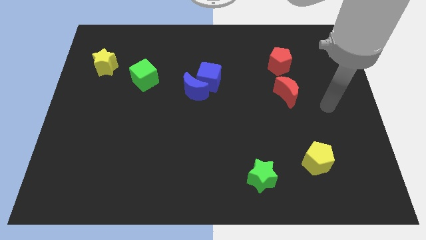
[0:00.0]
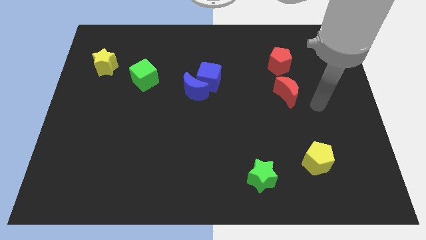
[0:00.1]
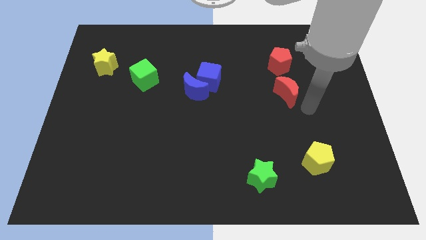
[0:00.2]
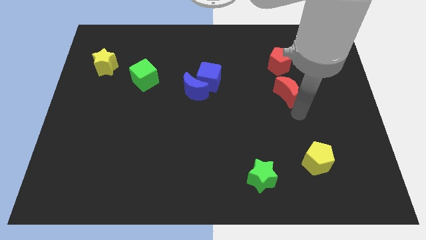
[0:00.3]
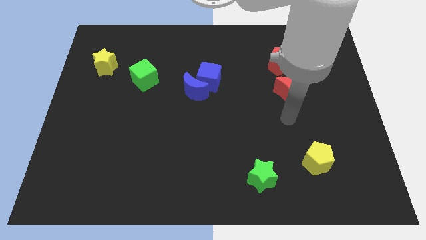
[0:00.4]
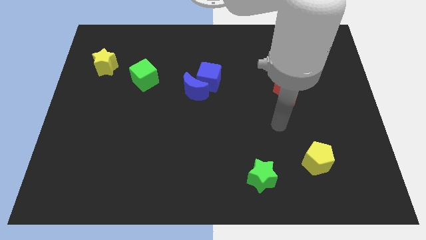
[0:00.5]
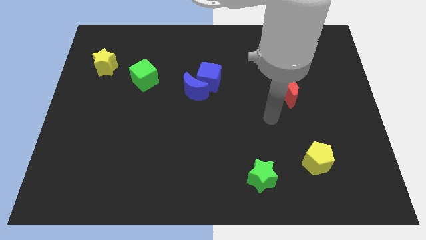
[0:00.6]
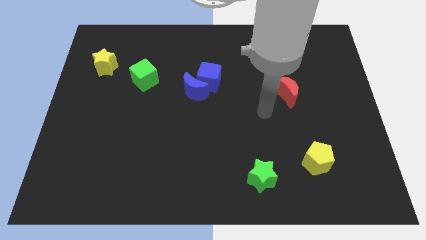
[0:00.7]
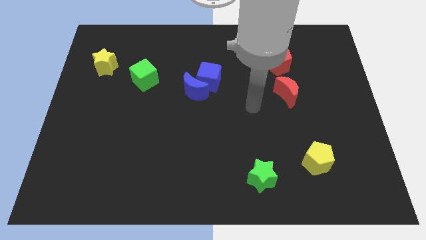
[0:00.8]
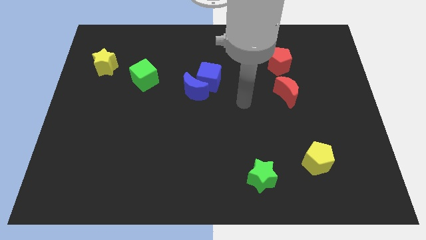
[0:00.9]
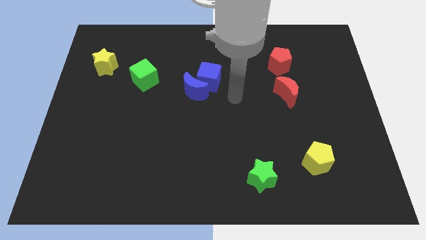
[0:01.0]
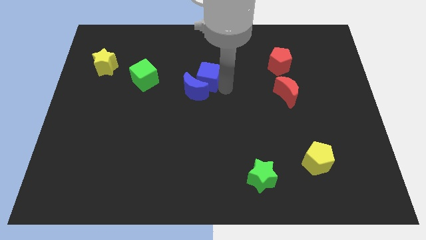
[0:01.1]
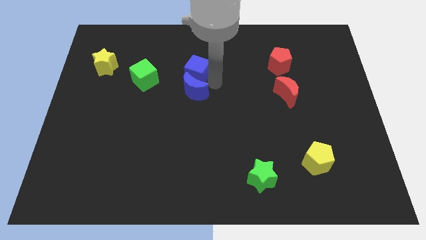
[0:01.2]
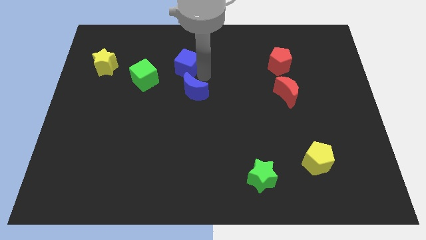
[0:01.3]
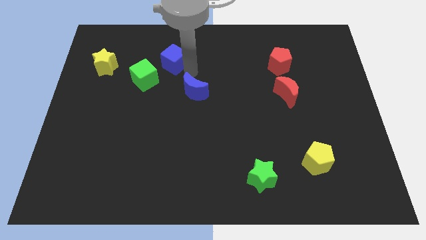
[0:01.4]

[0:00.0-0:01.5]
separate the blue moon from the blue cube

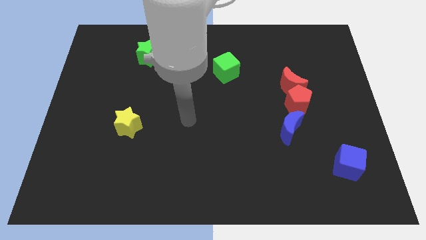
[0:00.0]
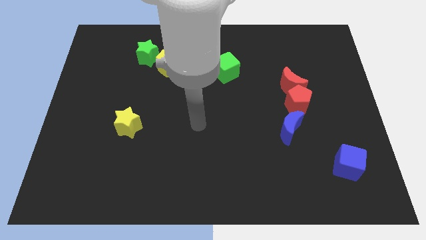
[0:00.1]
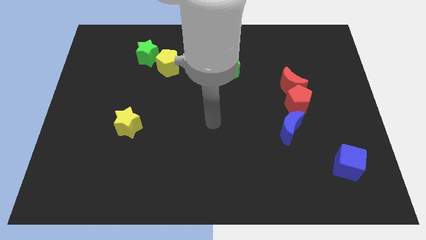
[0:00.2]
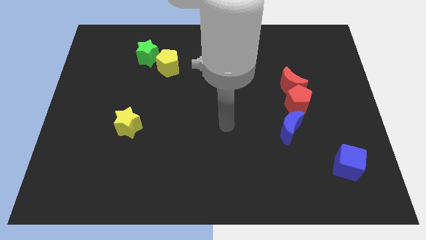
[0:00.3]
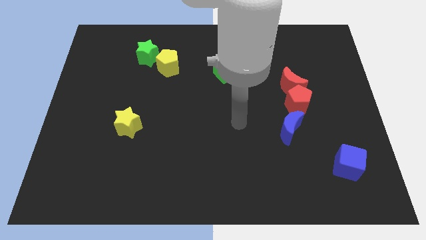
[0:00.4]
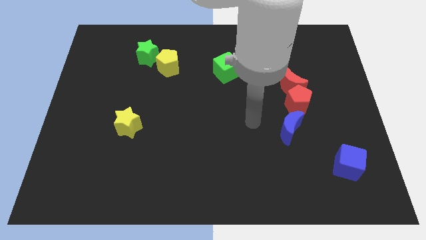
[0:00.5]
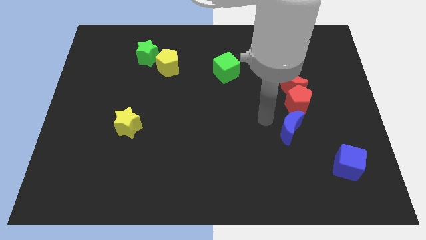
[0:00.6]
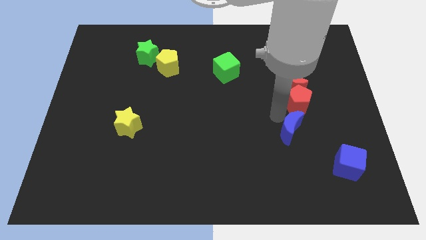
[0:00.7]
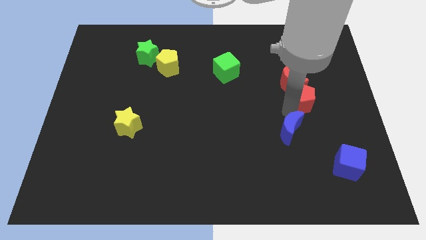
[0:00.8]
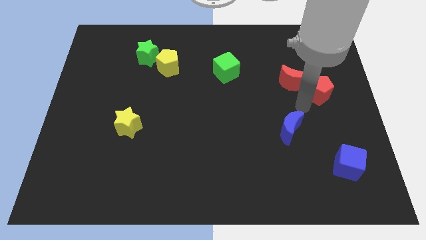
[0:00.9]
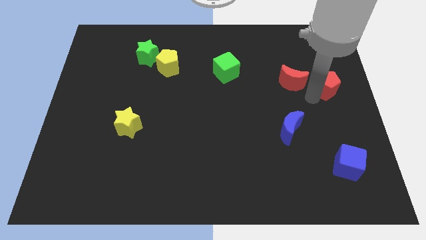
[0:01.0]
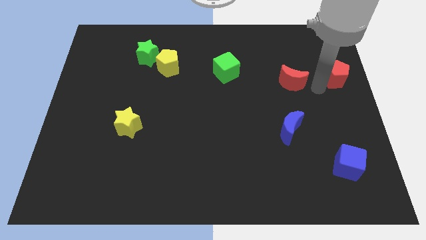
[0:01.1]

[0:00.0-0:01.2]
pull the red moon apart from the red pentagon

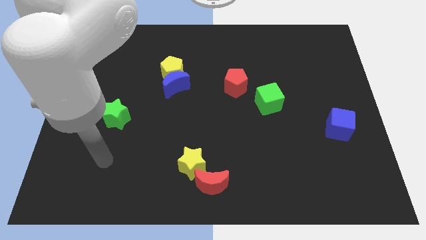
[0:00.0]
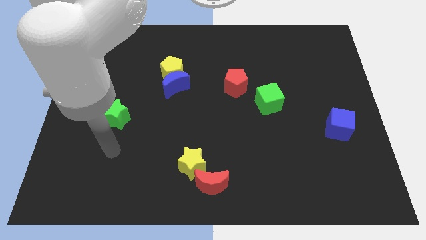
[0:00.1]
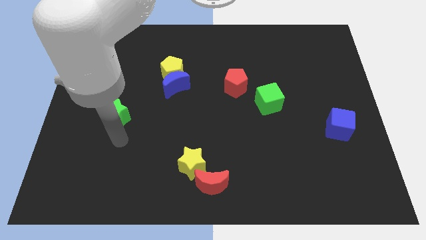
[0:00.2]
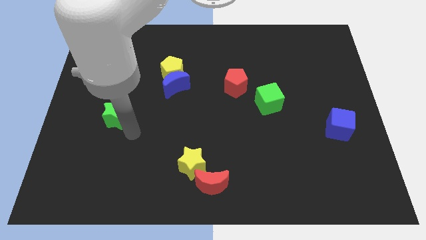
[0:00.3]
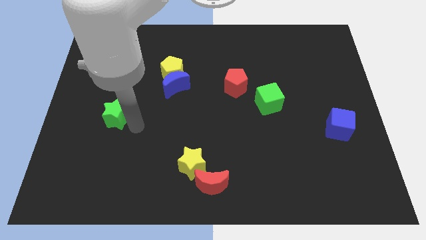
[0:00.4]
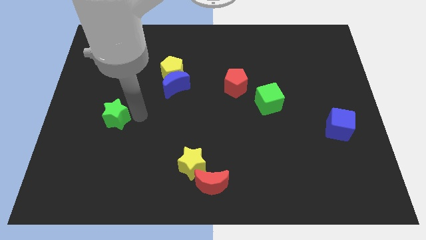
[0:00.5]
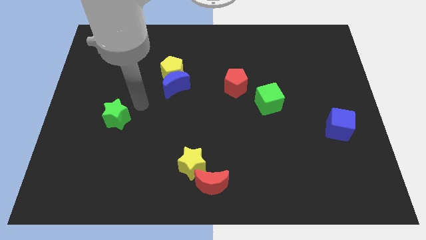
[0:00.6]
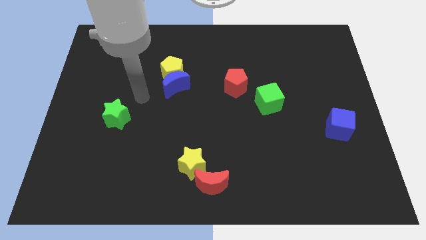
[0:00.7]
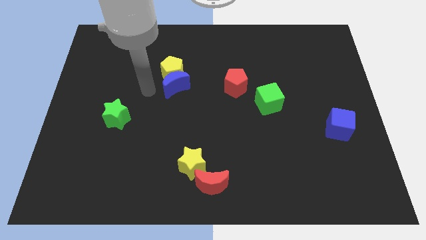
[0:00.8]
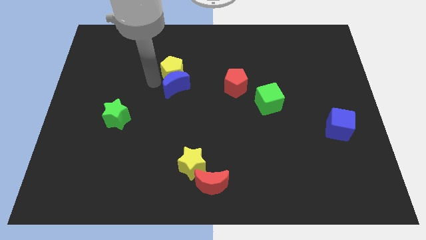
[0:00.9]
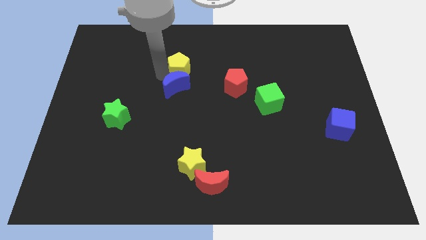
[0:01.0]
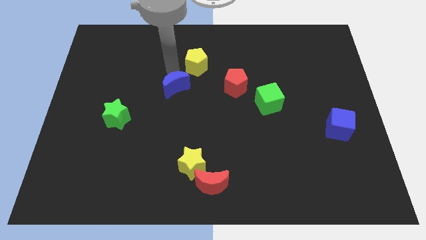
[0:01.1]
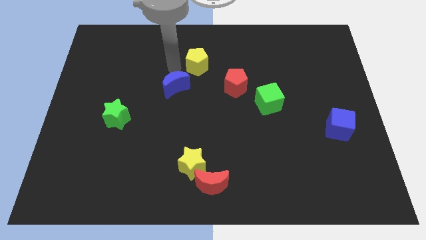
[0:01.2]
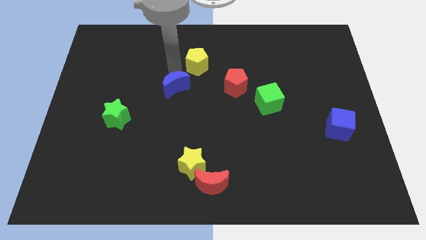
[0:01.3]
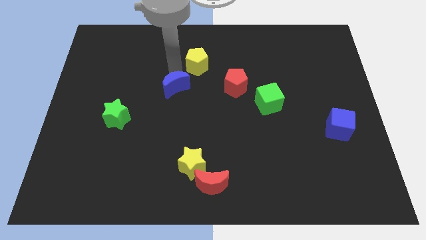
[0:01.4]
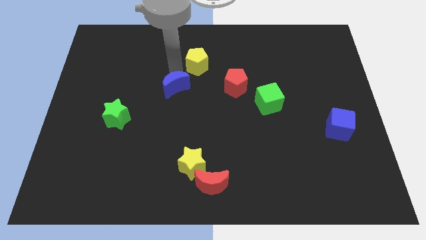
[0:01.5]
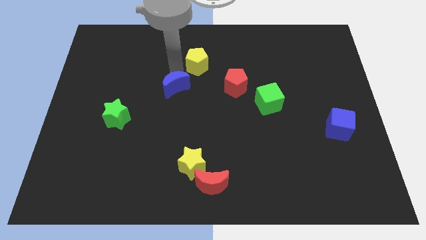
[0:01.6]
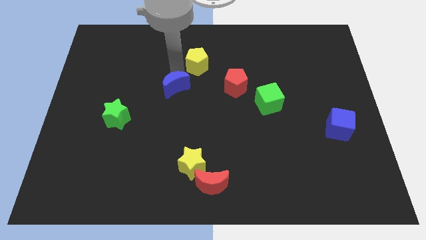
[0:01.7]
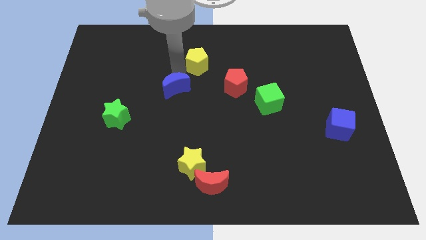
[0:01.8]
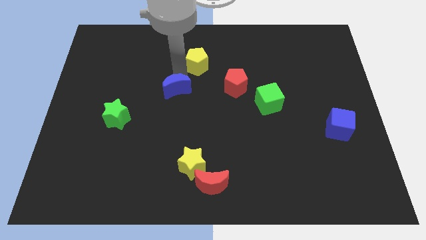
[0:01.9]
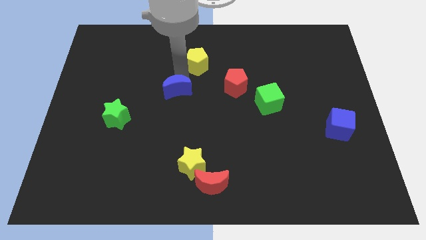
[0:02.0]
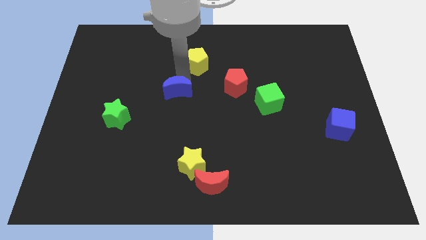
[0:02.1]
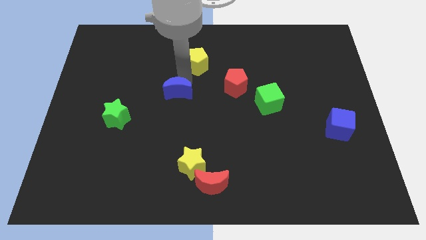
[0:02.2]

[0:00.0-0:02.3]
pull the blue moon apart from the yellow pentagon

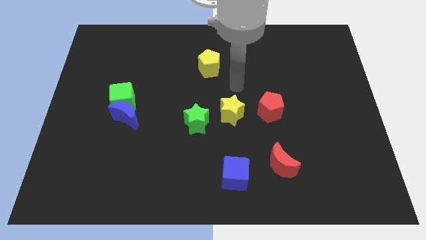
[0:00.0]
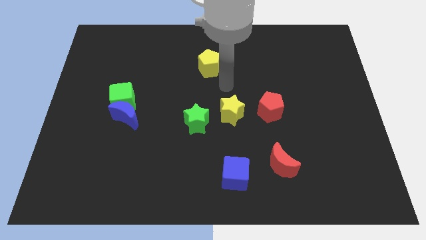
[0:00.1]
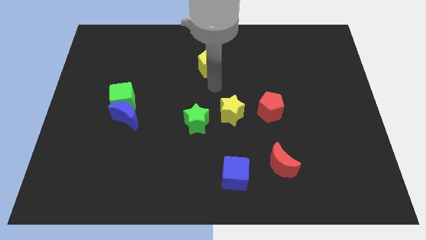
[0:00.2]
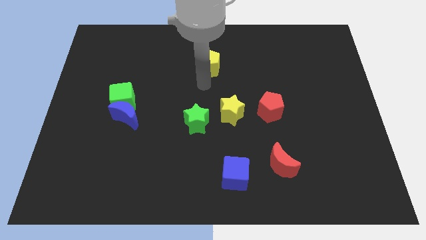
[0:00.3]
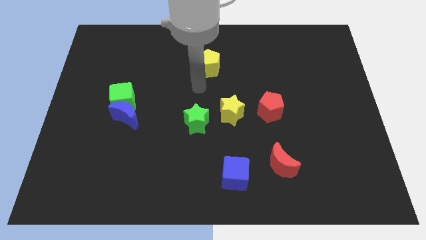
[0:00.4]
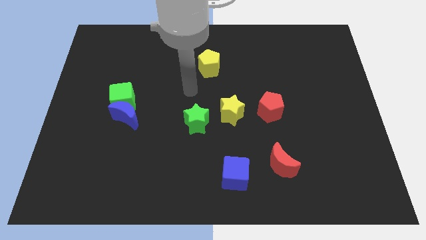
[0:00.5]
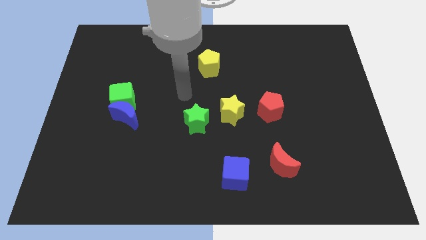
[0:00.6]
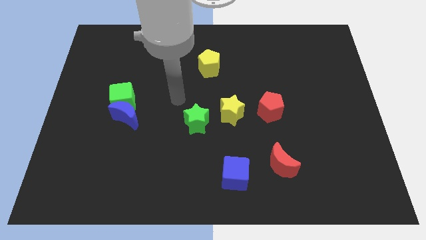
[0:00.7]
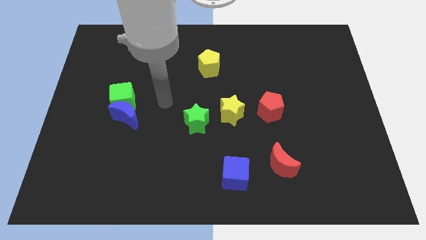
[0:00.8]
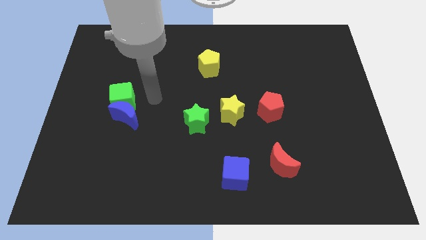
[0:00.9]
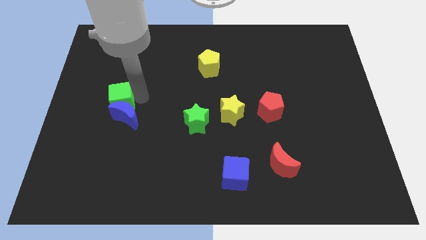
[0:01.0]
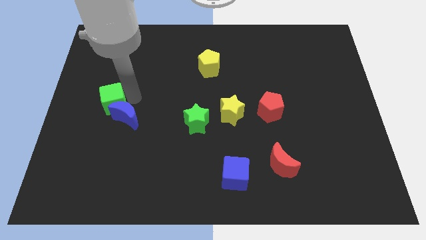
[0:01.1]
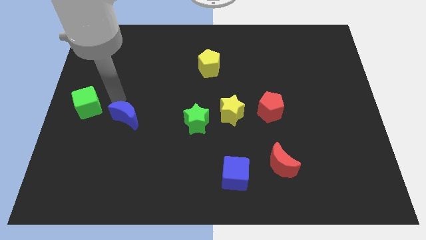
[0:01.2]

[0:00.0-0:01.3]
pull the blue moon apart from the green cube

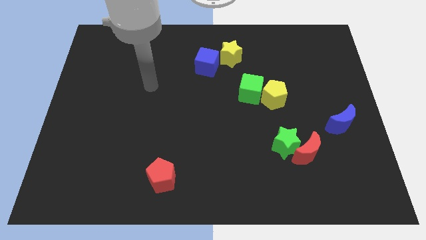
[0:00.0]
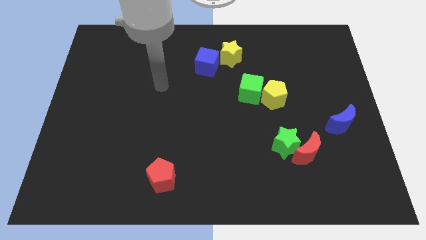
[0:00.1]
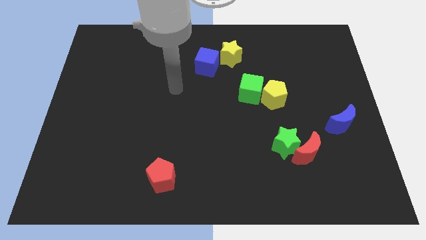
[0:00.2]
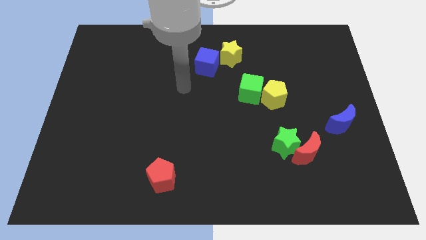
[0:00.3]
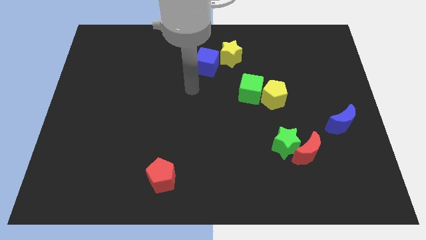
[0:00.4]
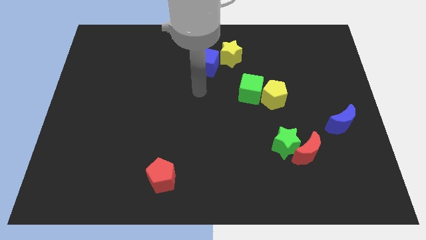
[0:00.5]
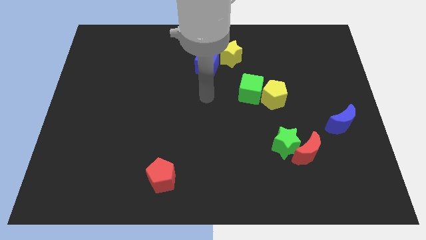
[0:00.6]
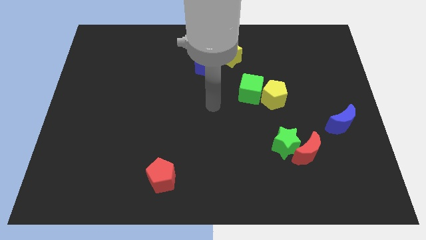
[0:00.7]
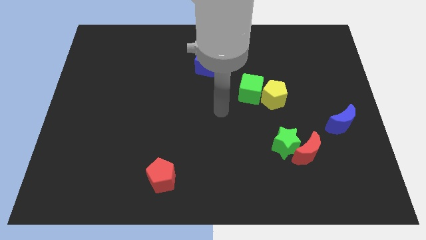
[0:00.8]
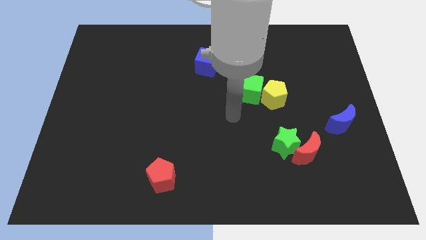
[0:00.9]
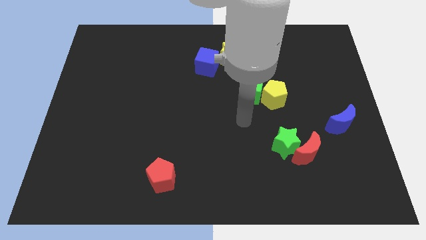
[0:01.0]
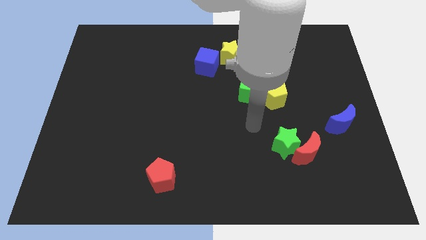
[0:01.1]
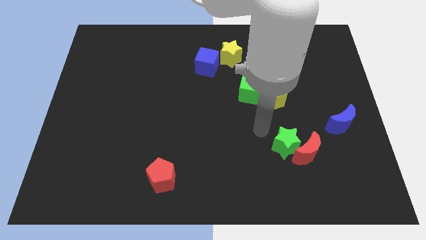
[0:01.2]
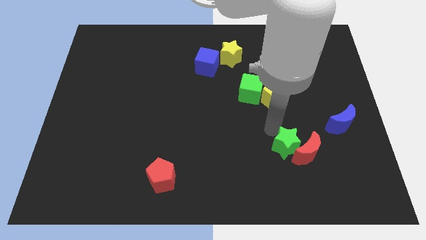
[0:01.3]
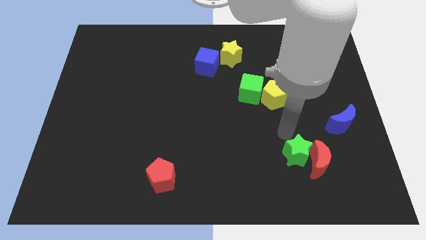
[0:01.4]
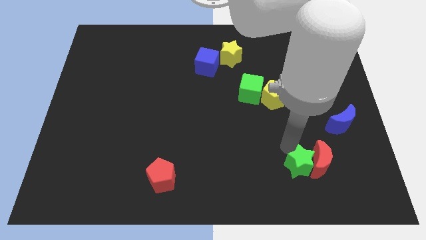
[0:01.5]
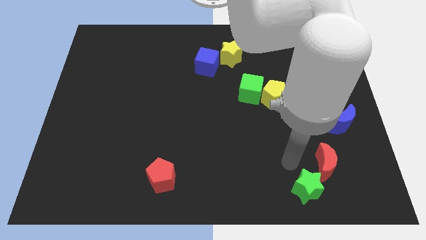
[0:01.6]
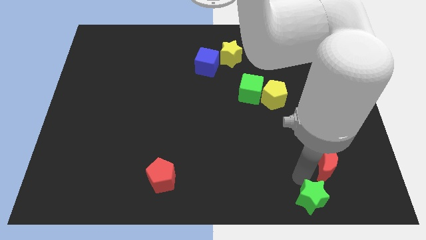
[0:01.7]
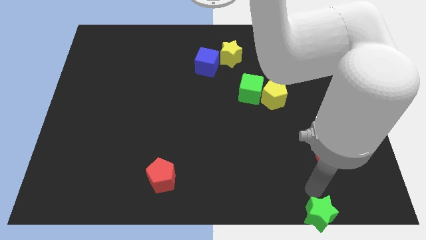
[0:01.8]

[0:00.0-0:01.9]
move the red moon away from the green star

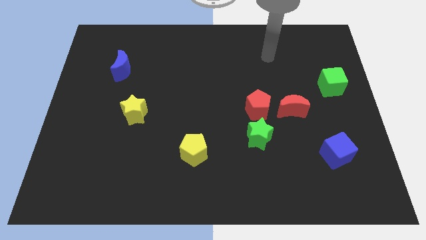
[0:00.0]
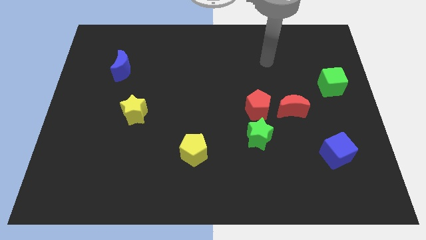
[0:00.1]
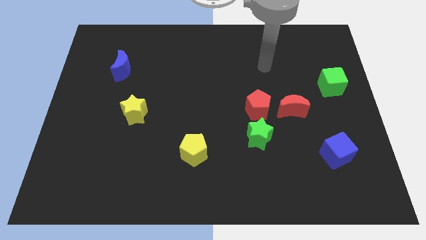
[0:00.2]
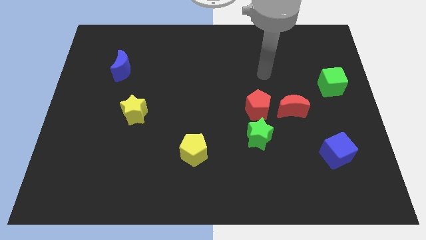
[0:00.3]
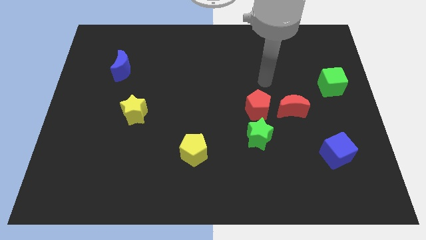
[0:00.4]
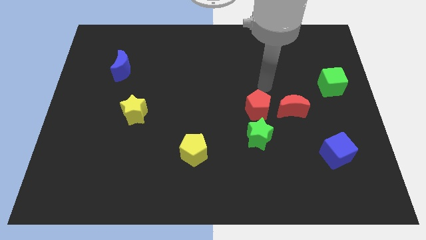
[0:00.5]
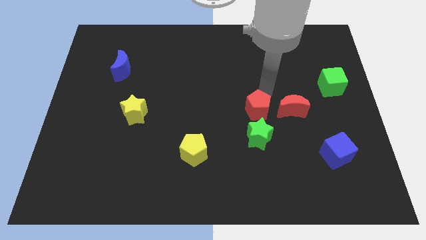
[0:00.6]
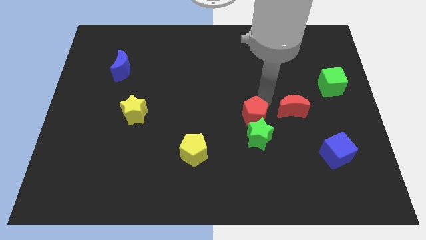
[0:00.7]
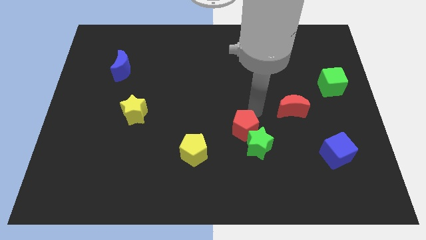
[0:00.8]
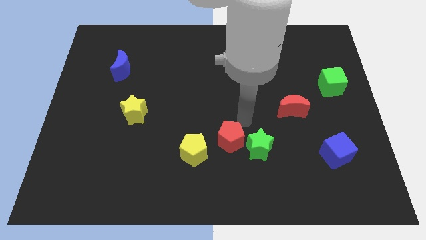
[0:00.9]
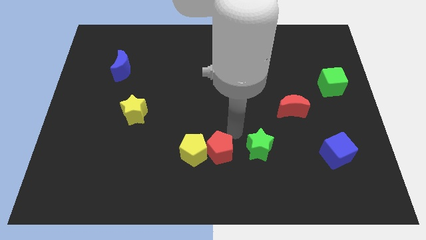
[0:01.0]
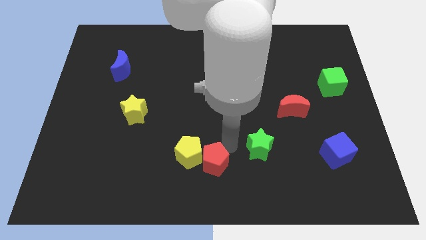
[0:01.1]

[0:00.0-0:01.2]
move the green star away from the red pentagon
